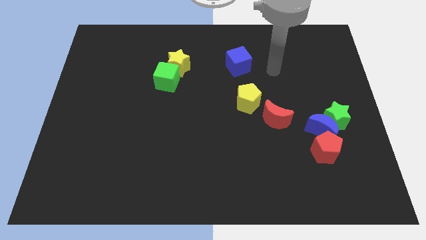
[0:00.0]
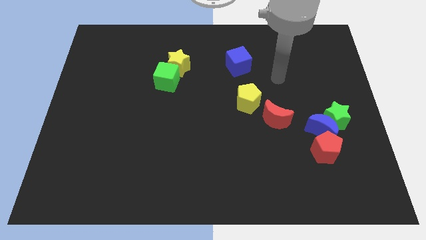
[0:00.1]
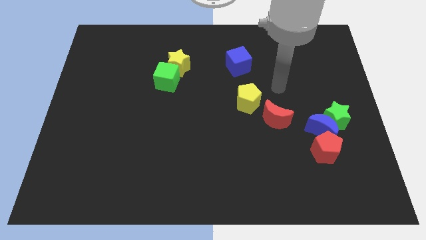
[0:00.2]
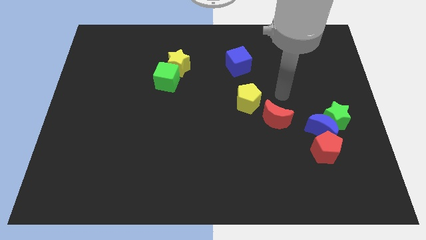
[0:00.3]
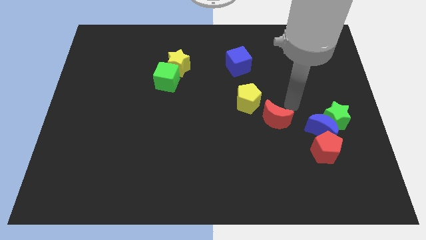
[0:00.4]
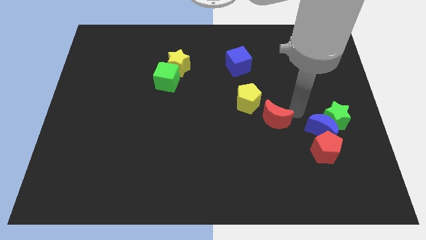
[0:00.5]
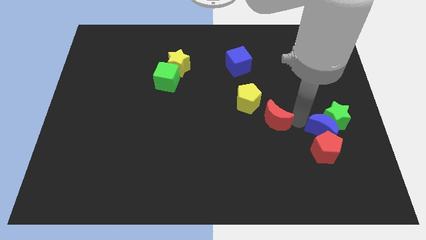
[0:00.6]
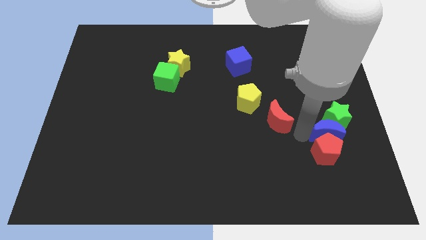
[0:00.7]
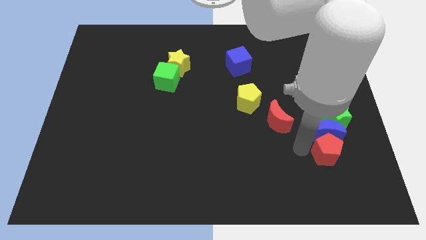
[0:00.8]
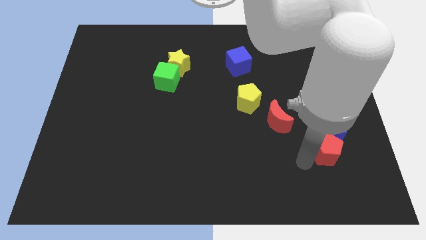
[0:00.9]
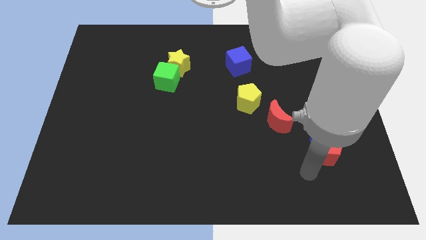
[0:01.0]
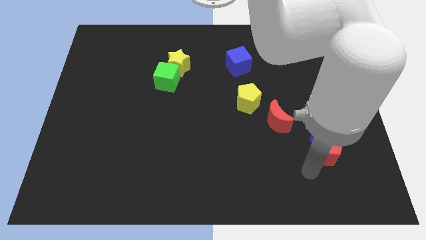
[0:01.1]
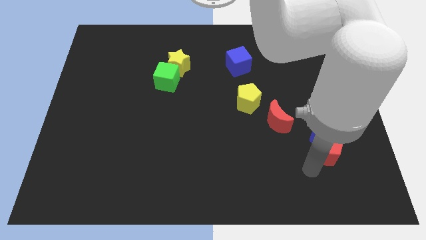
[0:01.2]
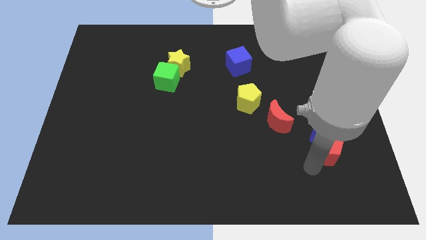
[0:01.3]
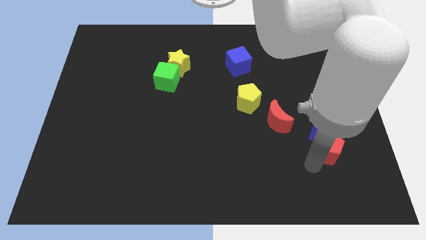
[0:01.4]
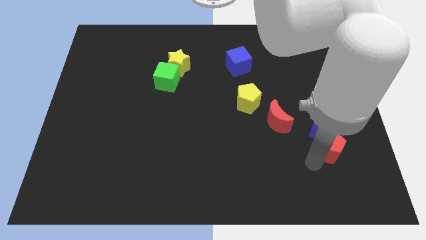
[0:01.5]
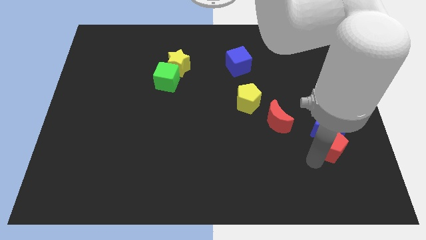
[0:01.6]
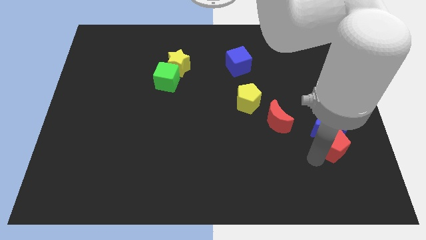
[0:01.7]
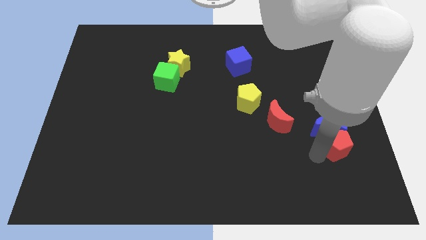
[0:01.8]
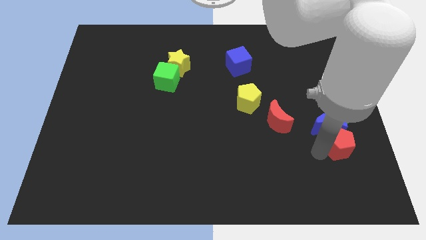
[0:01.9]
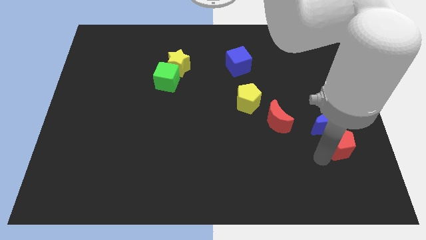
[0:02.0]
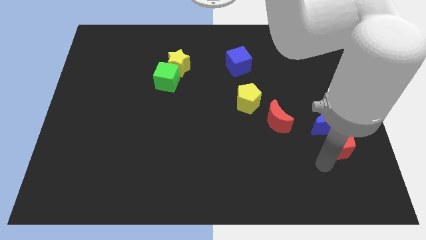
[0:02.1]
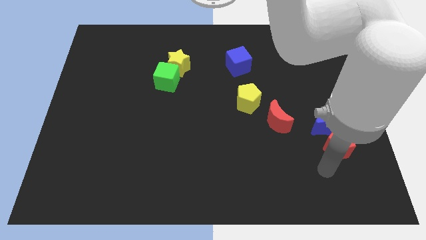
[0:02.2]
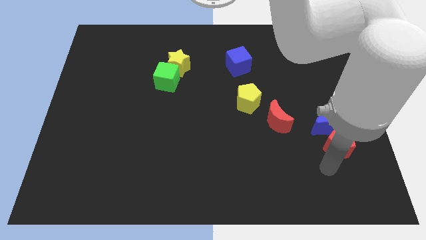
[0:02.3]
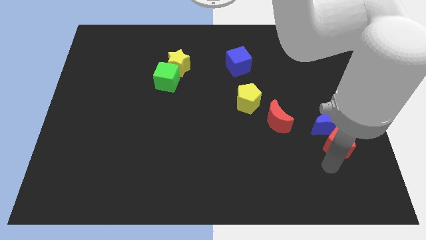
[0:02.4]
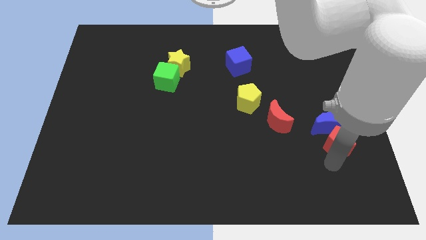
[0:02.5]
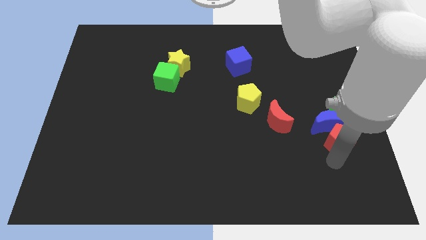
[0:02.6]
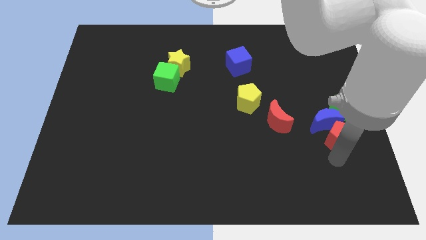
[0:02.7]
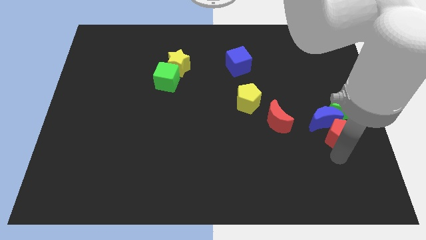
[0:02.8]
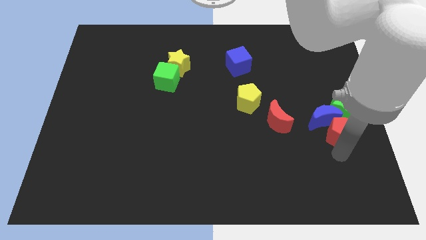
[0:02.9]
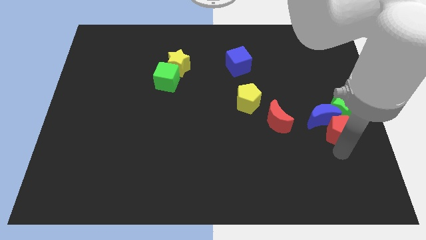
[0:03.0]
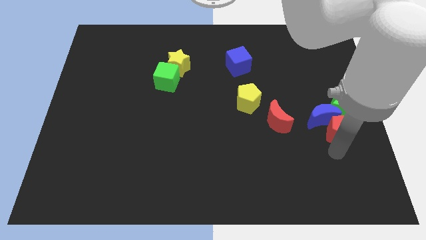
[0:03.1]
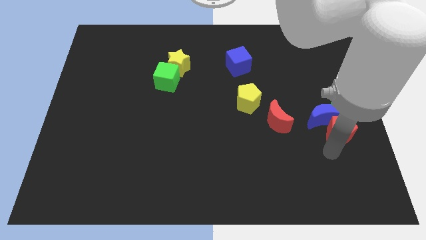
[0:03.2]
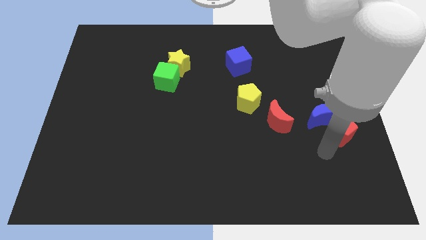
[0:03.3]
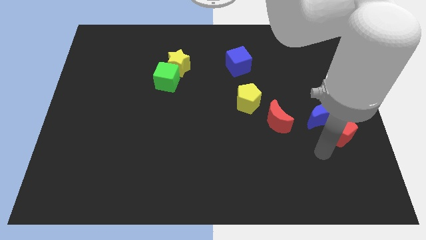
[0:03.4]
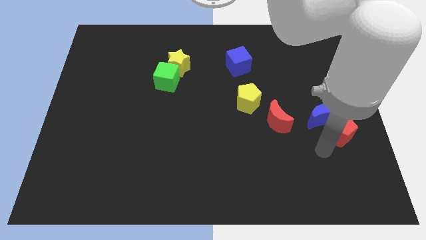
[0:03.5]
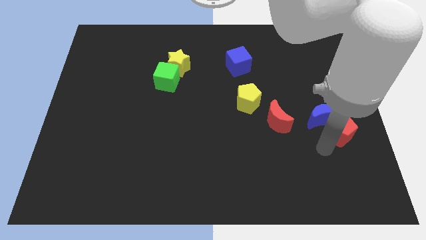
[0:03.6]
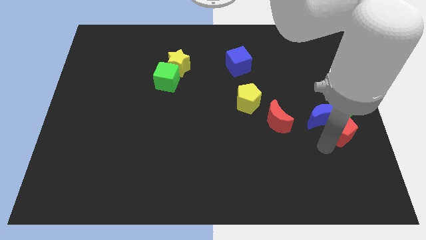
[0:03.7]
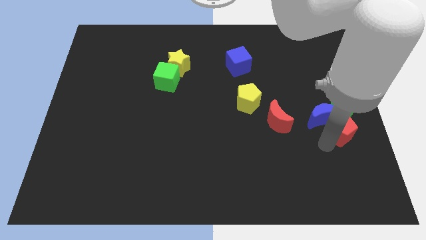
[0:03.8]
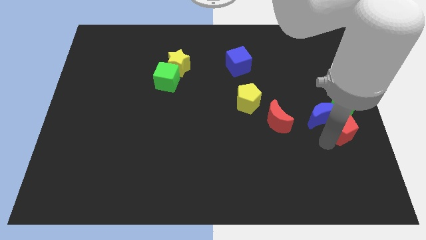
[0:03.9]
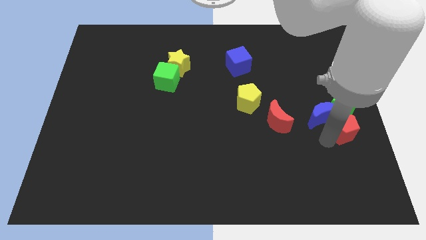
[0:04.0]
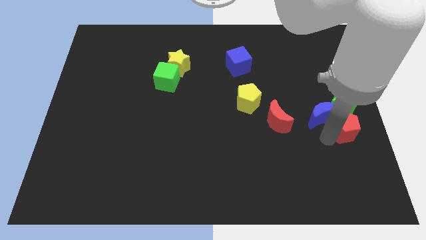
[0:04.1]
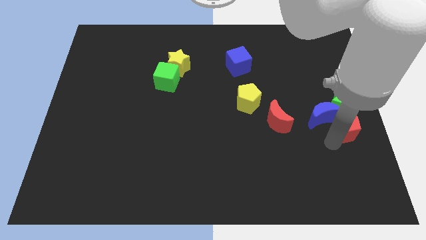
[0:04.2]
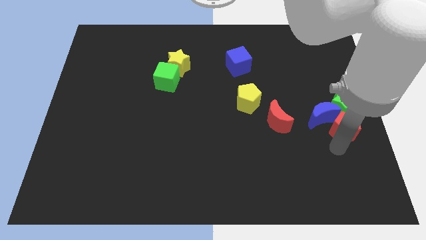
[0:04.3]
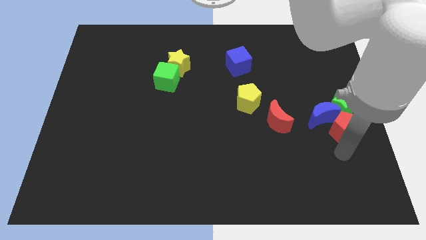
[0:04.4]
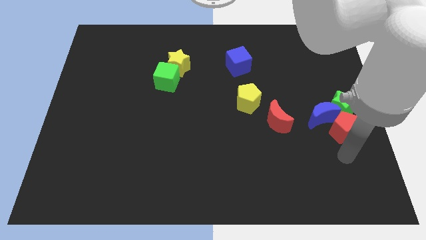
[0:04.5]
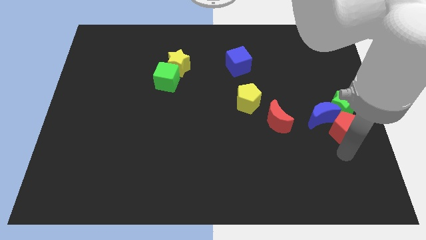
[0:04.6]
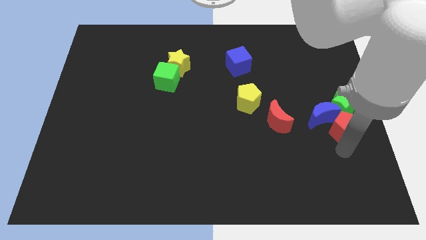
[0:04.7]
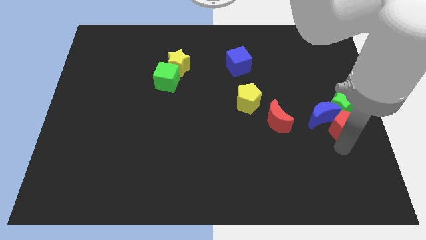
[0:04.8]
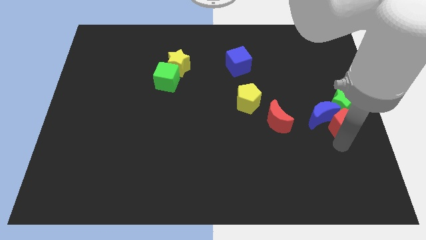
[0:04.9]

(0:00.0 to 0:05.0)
push the red pentagon next to the green star

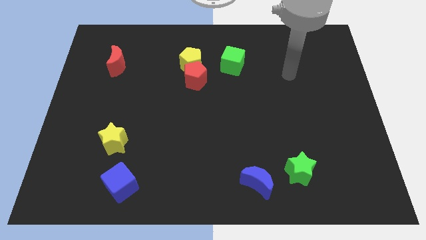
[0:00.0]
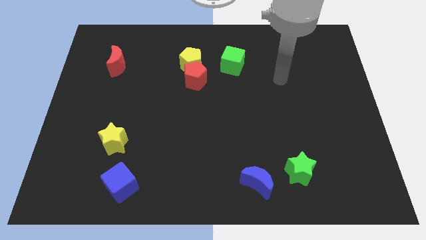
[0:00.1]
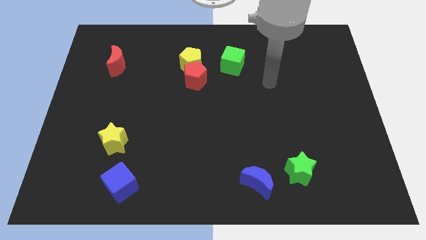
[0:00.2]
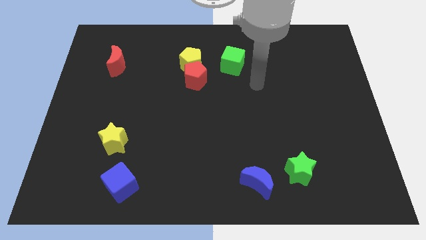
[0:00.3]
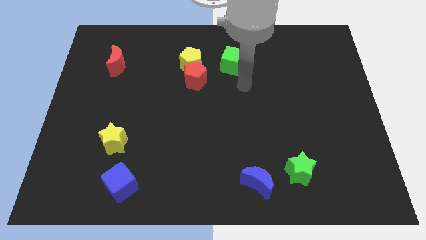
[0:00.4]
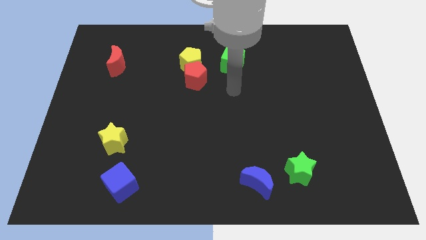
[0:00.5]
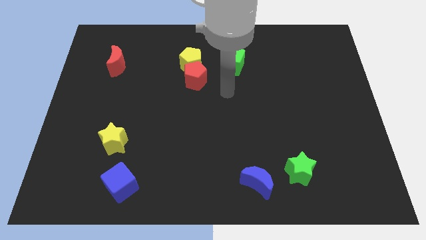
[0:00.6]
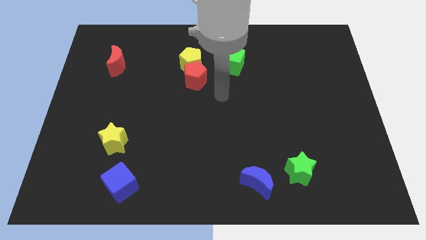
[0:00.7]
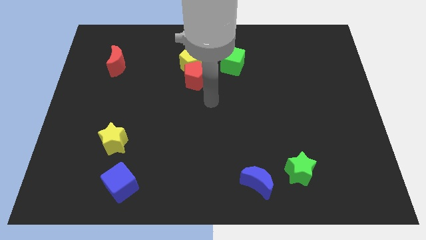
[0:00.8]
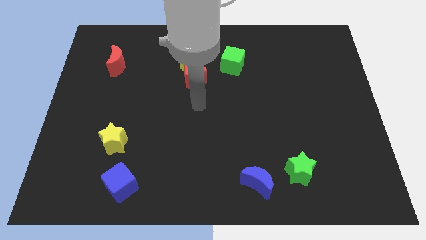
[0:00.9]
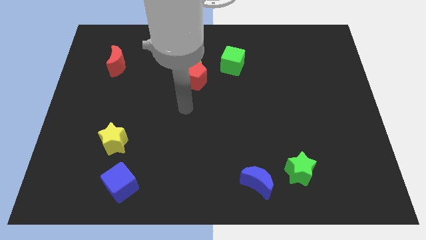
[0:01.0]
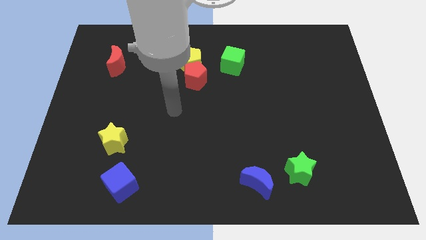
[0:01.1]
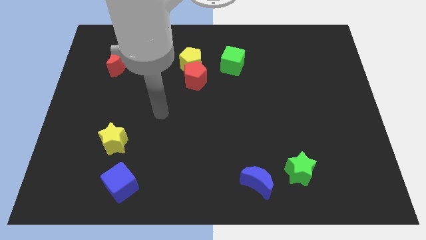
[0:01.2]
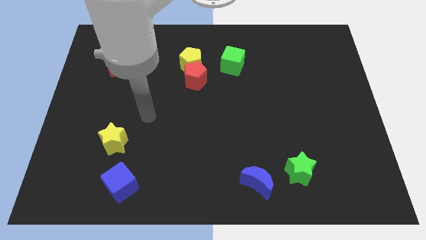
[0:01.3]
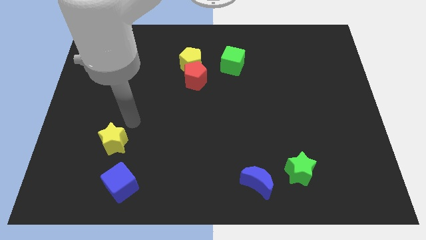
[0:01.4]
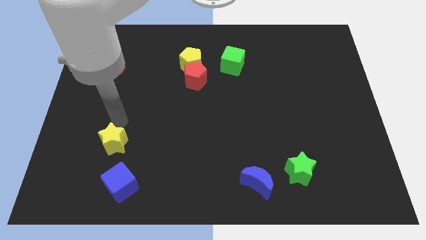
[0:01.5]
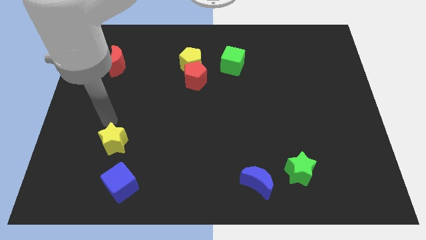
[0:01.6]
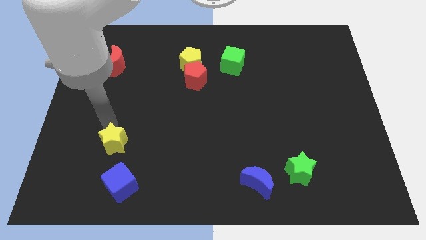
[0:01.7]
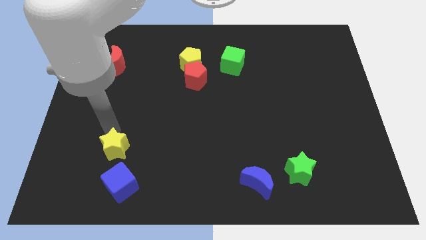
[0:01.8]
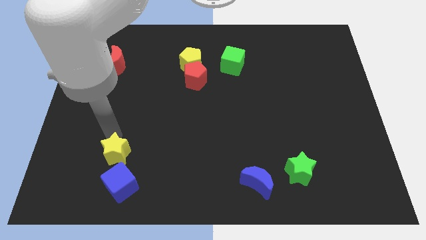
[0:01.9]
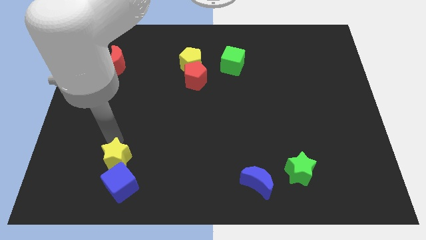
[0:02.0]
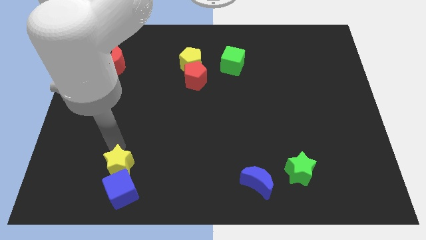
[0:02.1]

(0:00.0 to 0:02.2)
push the yellow star towards the blue cube
